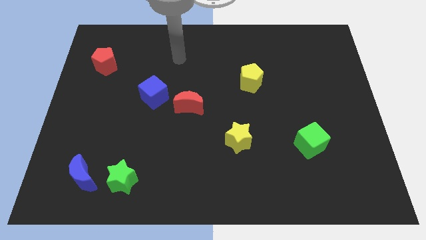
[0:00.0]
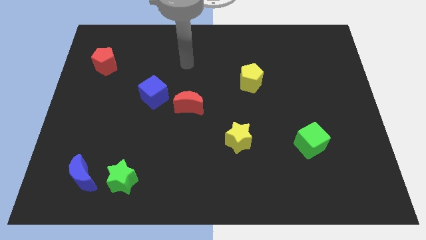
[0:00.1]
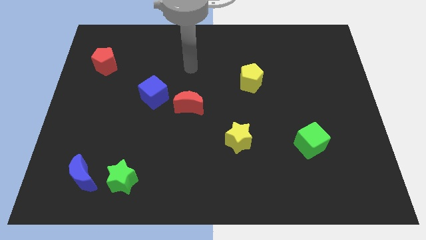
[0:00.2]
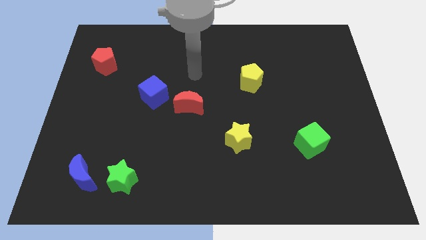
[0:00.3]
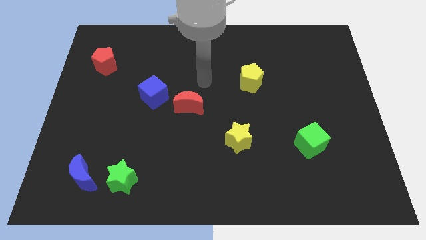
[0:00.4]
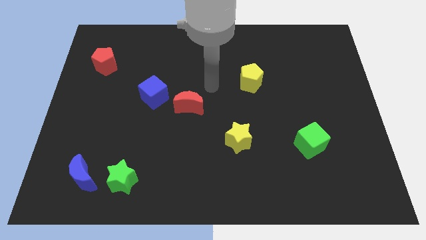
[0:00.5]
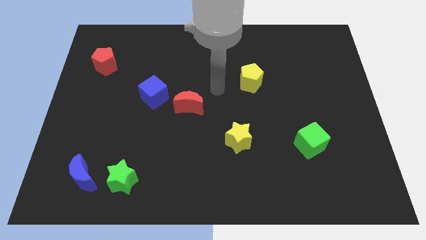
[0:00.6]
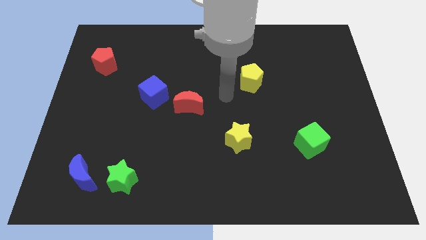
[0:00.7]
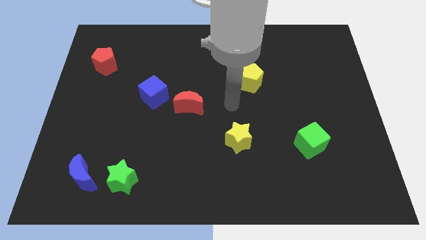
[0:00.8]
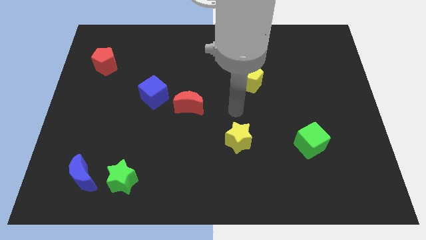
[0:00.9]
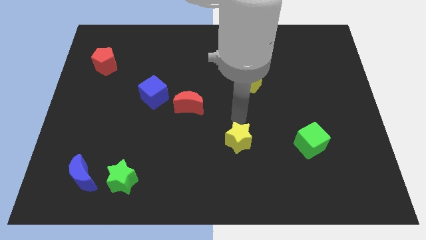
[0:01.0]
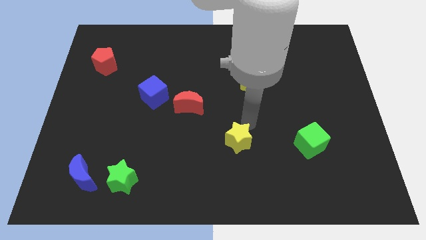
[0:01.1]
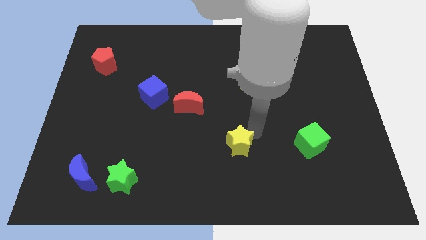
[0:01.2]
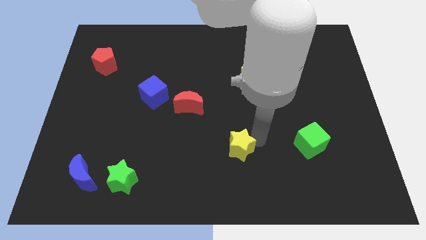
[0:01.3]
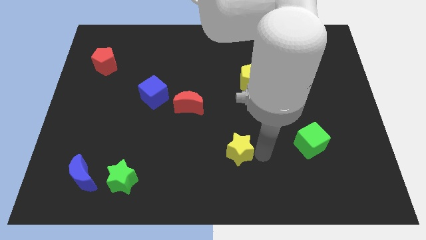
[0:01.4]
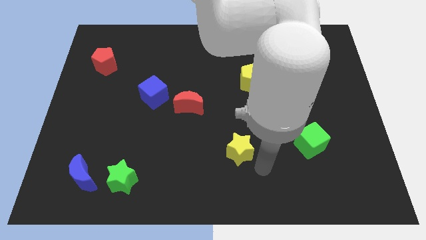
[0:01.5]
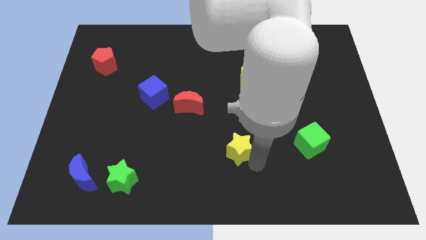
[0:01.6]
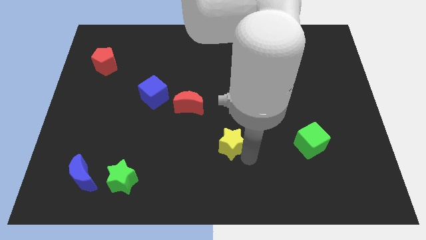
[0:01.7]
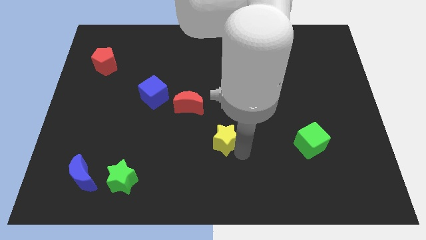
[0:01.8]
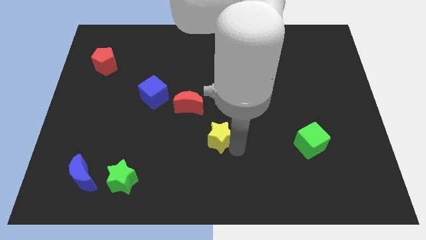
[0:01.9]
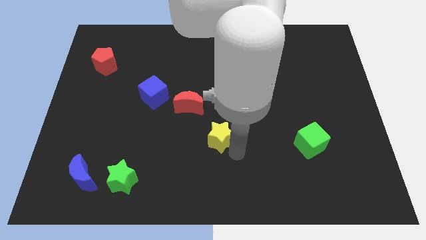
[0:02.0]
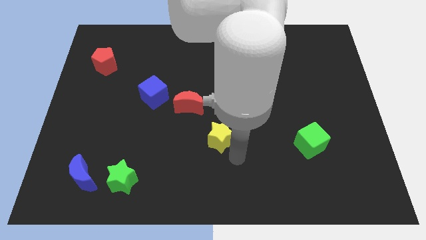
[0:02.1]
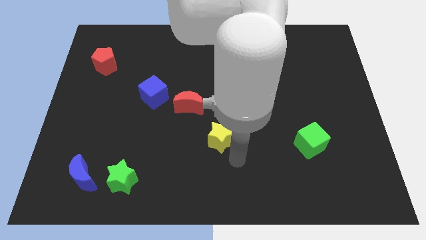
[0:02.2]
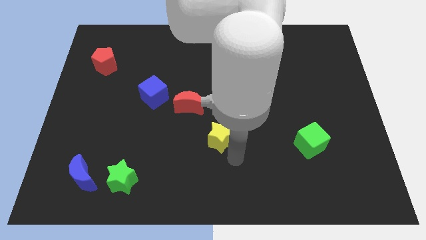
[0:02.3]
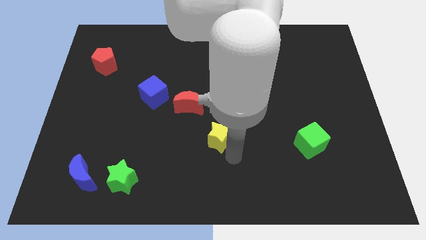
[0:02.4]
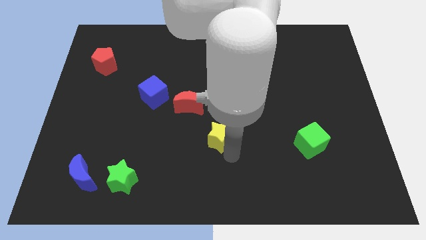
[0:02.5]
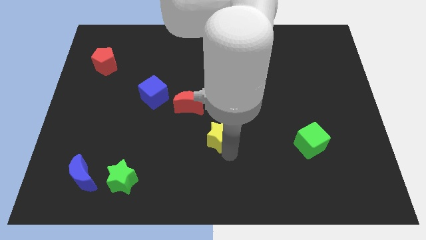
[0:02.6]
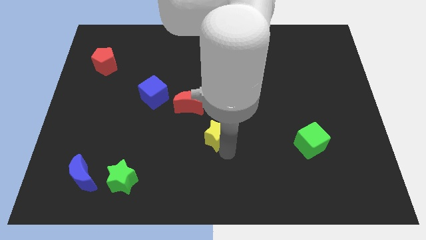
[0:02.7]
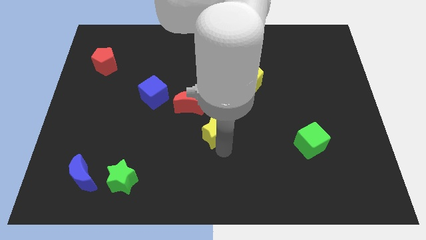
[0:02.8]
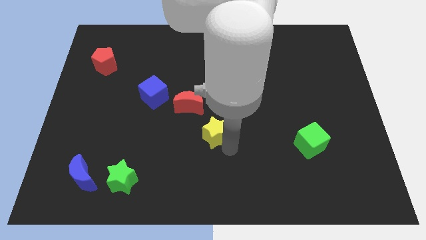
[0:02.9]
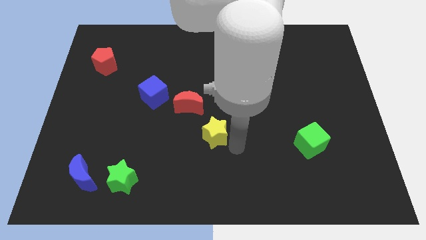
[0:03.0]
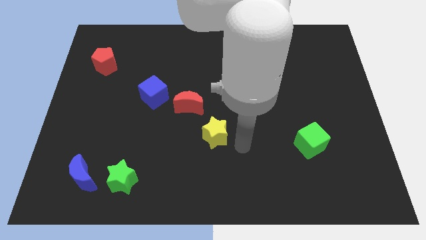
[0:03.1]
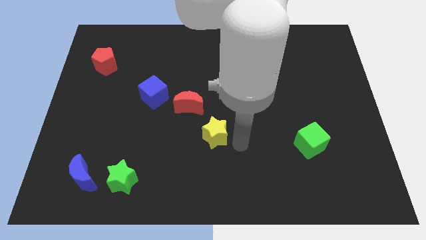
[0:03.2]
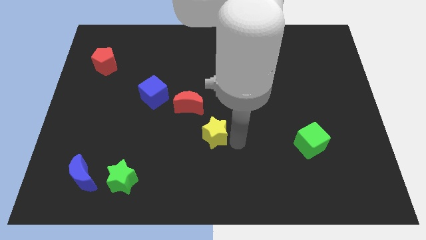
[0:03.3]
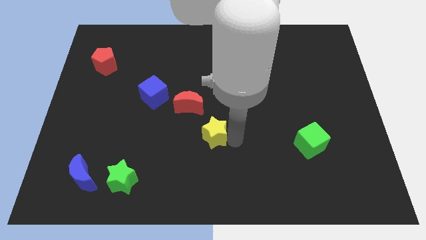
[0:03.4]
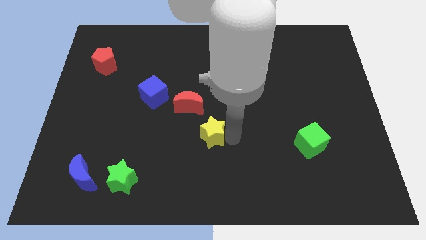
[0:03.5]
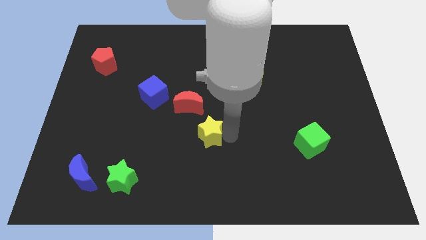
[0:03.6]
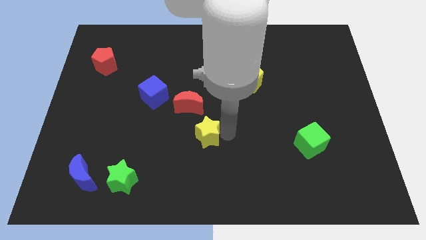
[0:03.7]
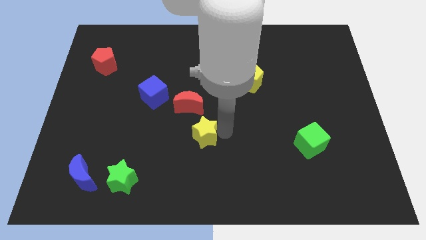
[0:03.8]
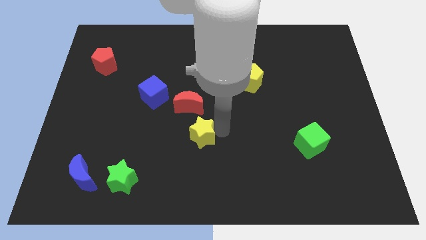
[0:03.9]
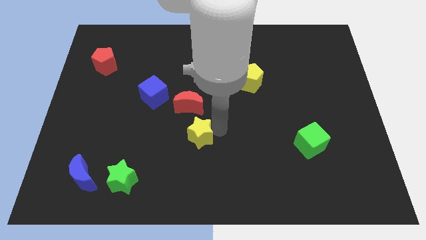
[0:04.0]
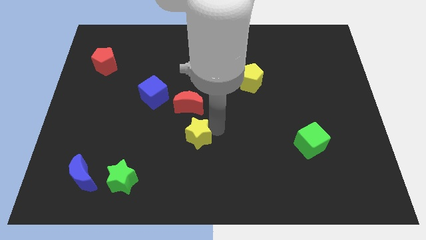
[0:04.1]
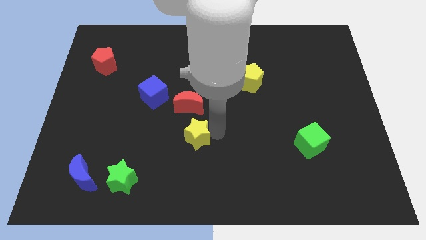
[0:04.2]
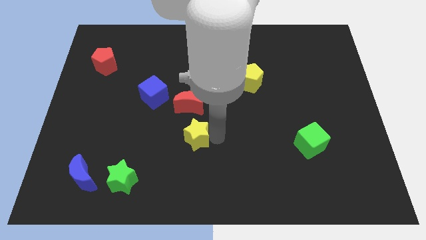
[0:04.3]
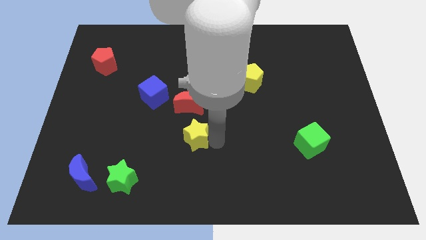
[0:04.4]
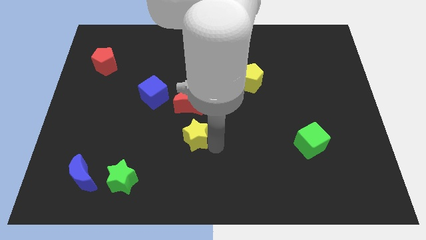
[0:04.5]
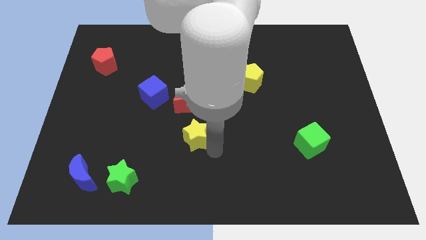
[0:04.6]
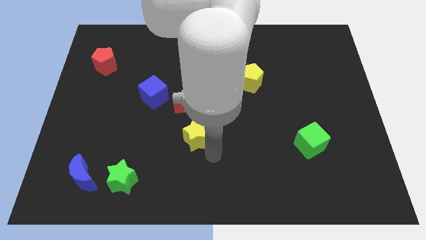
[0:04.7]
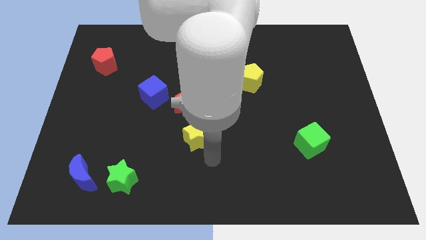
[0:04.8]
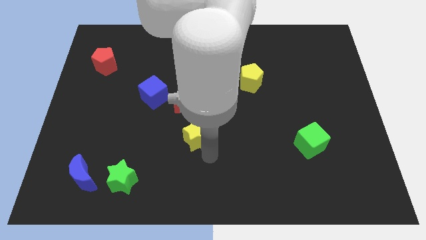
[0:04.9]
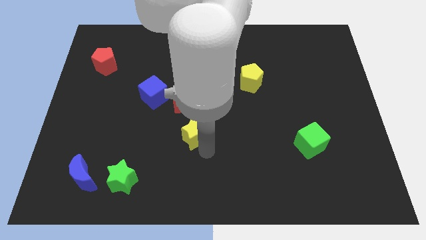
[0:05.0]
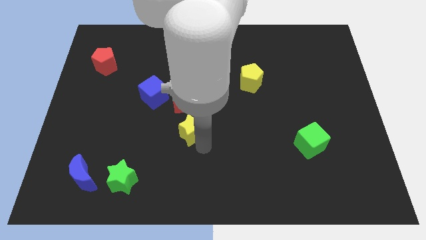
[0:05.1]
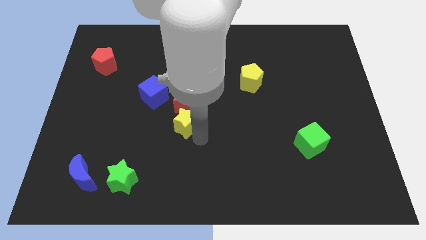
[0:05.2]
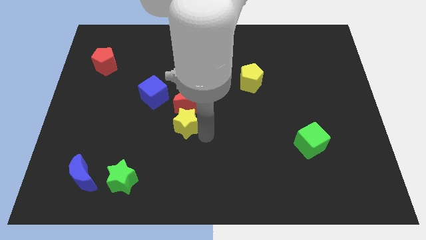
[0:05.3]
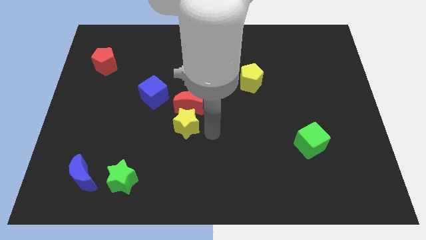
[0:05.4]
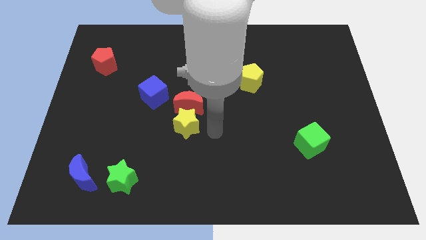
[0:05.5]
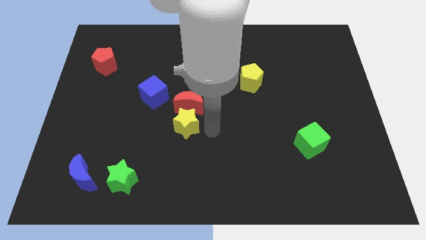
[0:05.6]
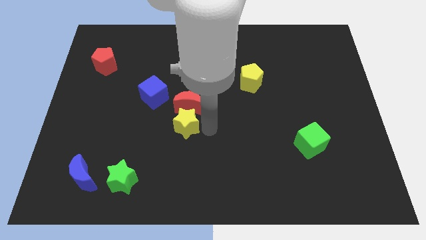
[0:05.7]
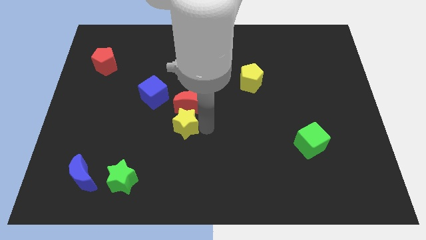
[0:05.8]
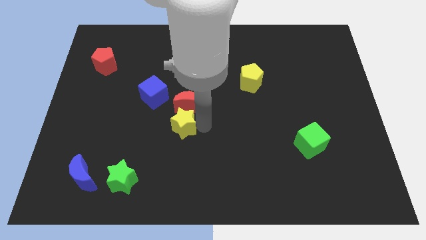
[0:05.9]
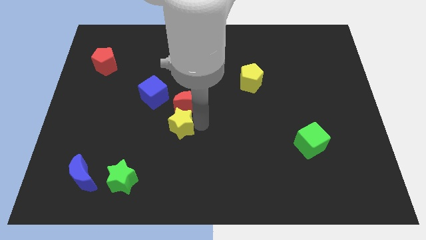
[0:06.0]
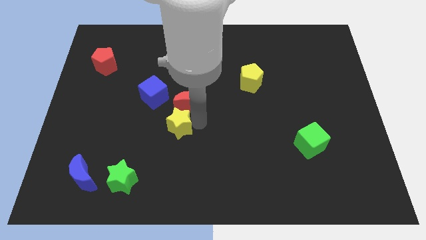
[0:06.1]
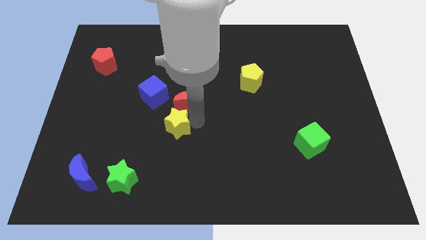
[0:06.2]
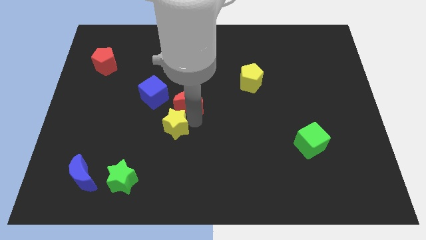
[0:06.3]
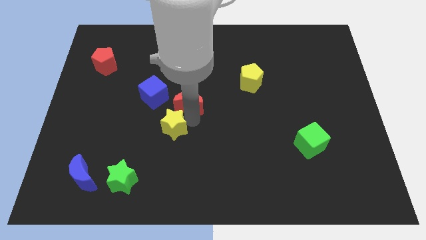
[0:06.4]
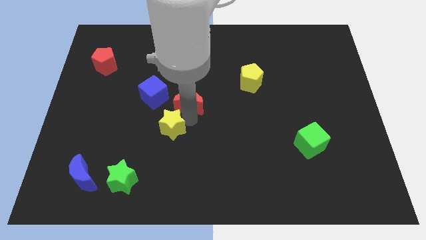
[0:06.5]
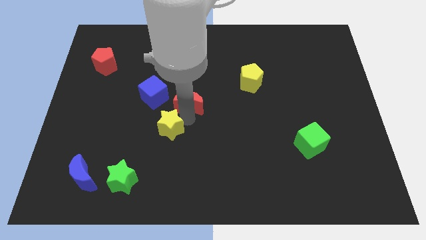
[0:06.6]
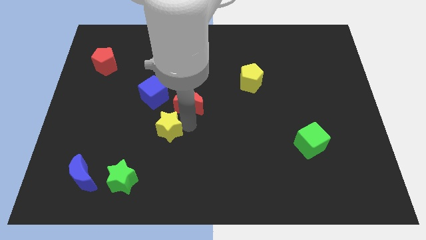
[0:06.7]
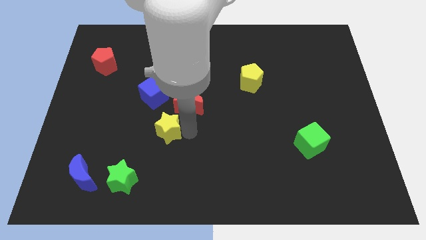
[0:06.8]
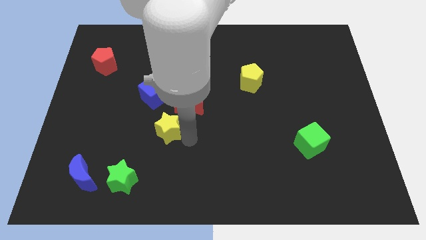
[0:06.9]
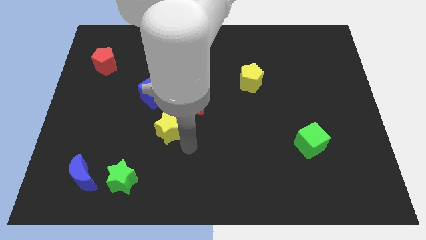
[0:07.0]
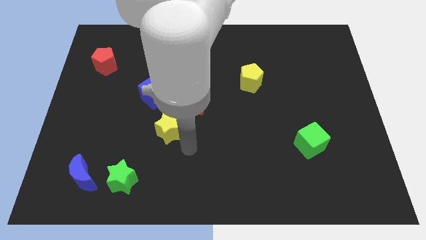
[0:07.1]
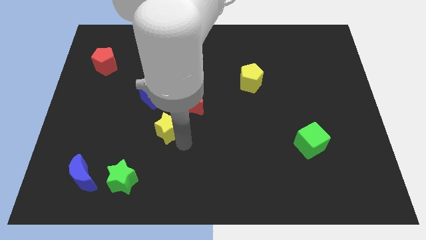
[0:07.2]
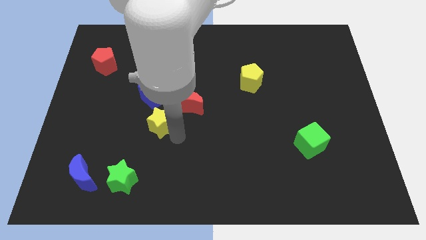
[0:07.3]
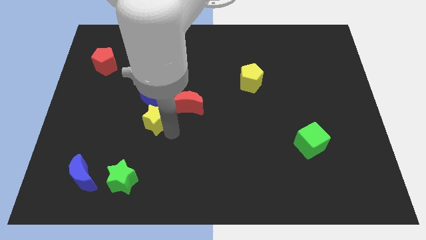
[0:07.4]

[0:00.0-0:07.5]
move the yellow star left of the red moon
